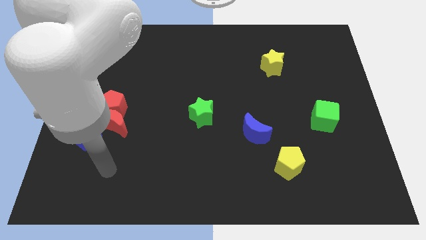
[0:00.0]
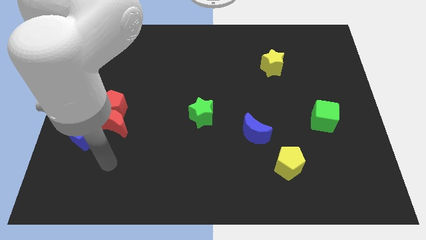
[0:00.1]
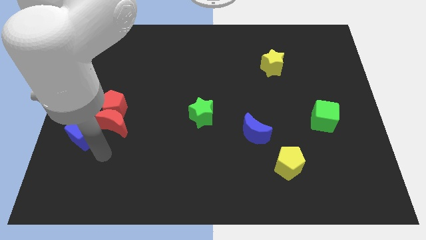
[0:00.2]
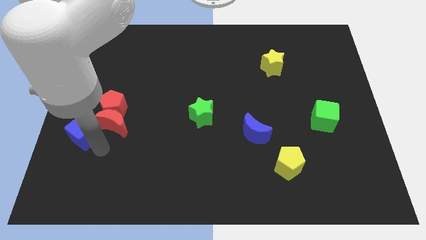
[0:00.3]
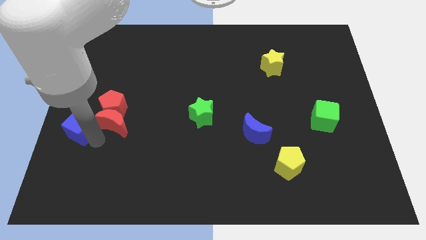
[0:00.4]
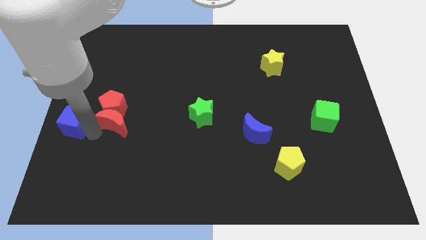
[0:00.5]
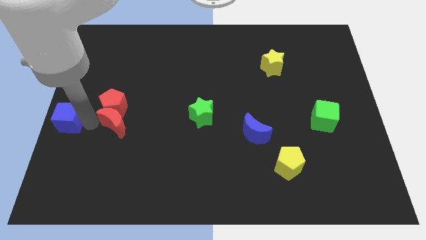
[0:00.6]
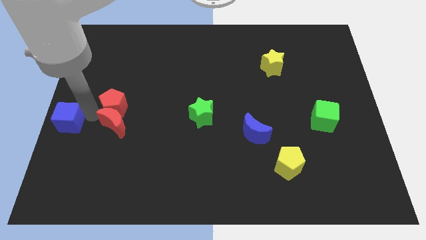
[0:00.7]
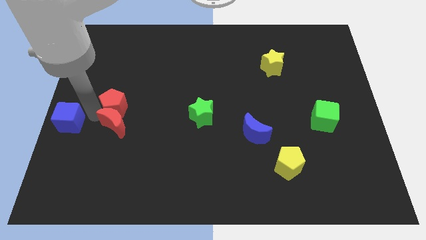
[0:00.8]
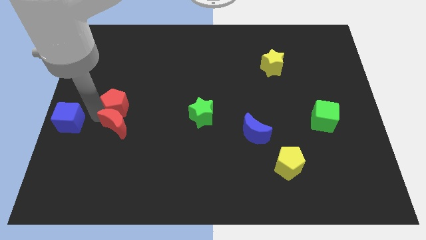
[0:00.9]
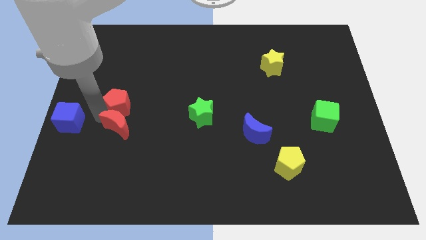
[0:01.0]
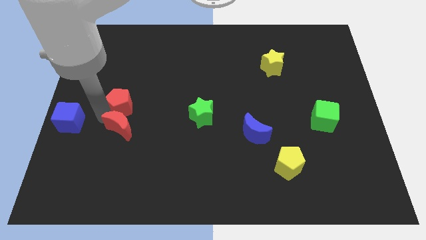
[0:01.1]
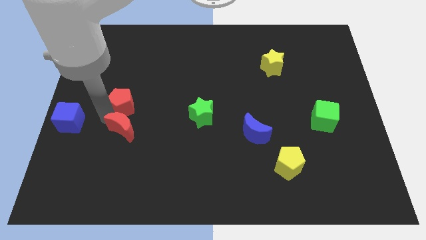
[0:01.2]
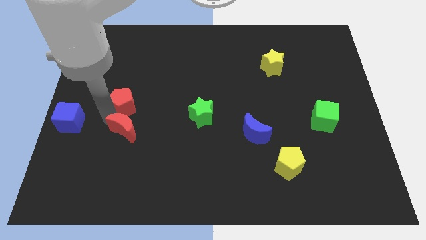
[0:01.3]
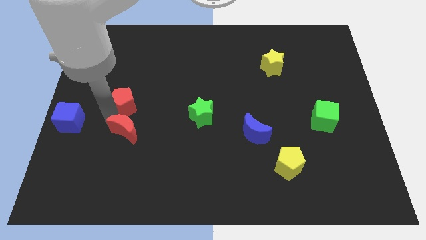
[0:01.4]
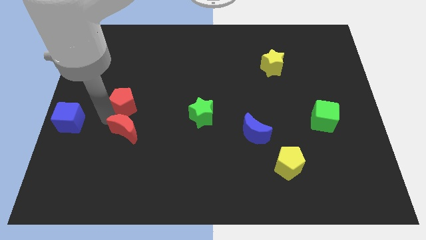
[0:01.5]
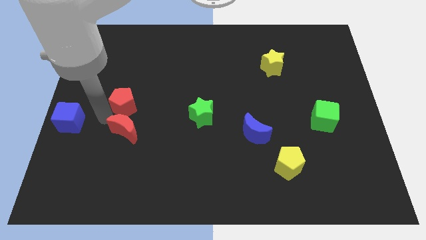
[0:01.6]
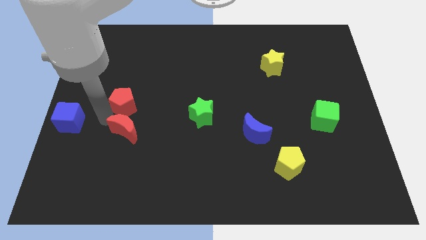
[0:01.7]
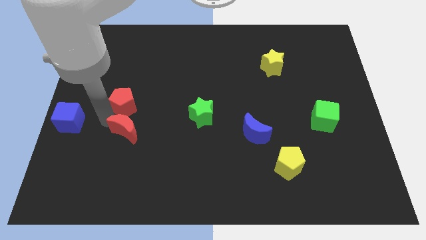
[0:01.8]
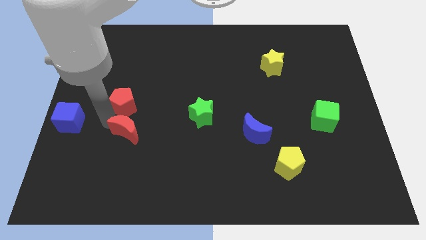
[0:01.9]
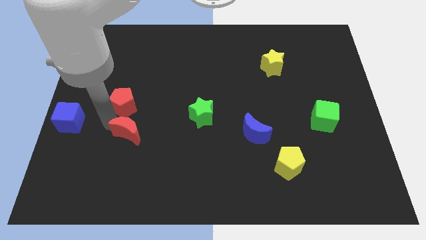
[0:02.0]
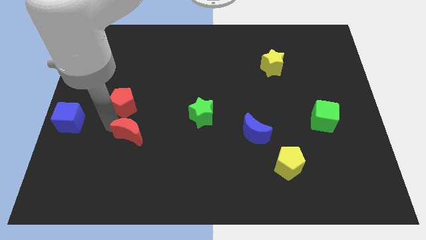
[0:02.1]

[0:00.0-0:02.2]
pull the red moon apart from the red pentagon and blue cube

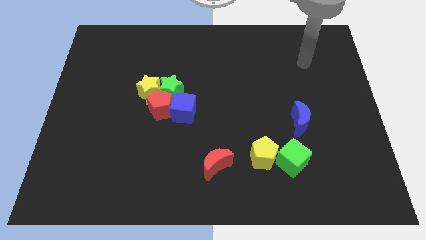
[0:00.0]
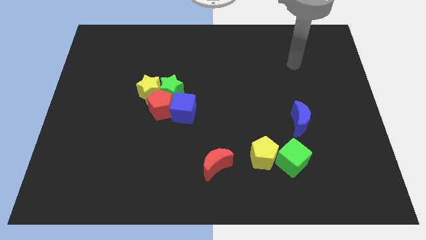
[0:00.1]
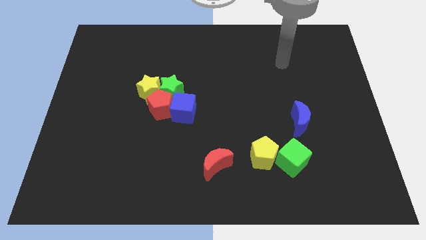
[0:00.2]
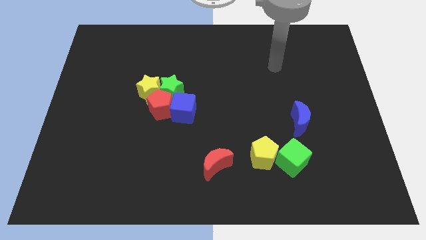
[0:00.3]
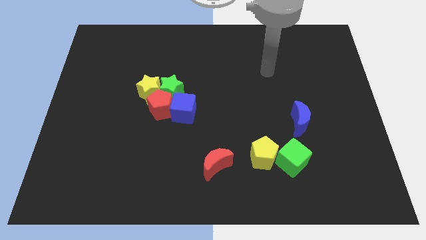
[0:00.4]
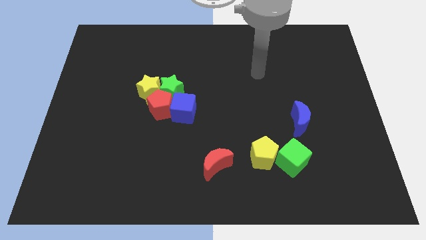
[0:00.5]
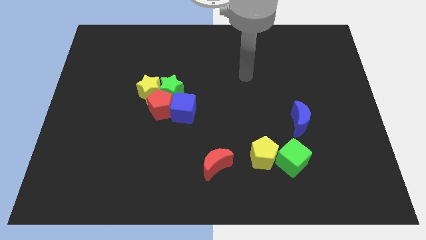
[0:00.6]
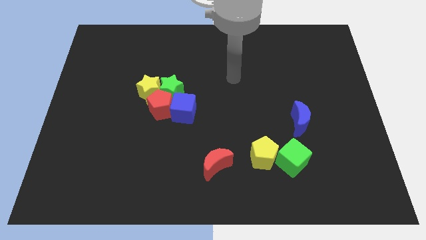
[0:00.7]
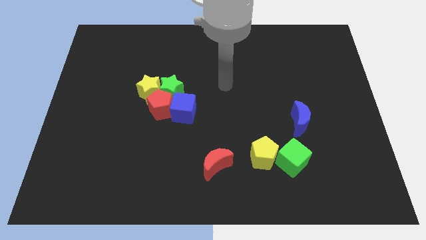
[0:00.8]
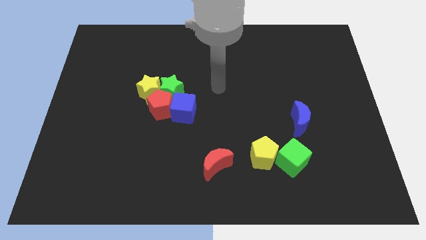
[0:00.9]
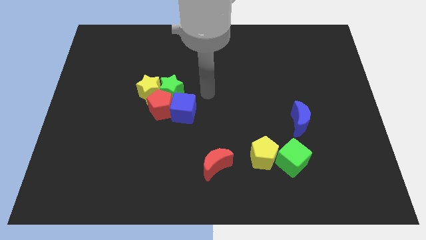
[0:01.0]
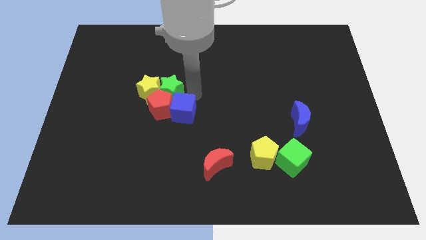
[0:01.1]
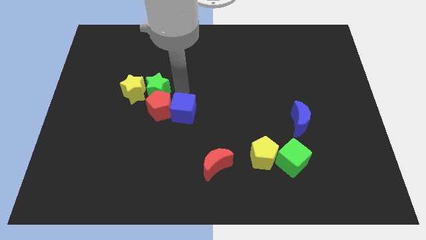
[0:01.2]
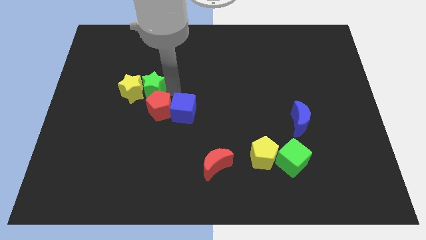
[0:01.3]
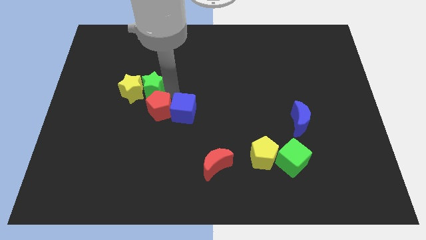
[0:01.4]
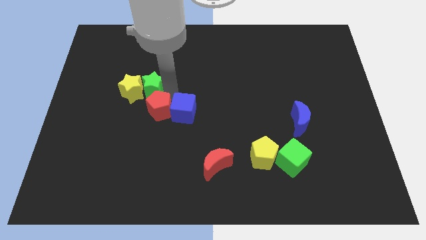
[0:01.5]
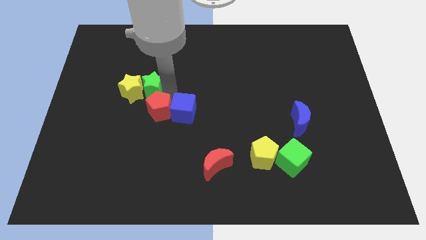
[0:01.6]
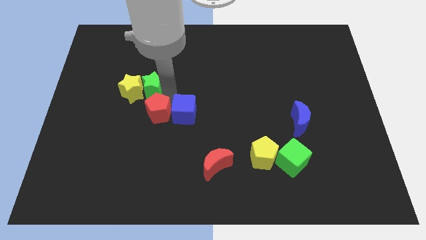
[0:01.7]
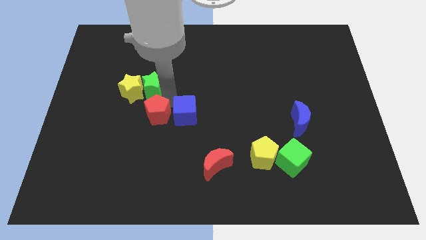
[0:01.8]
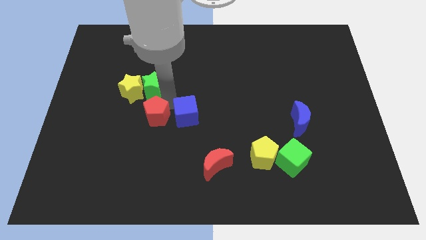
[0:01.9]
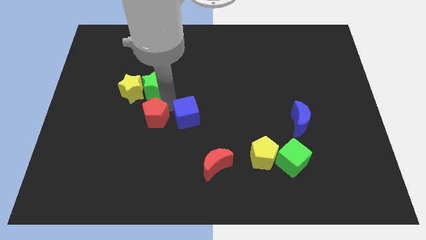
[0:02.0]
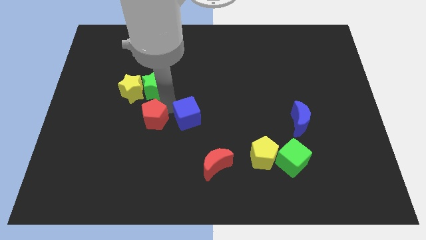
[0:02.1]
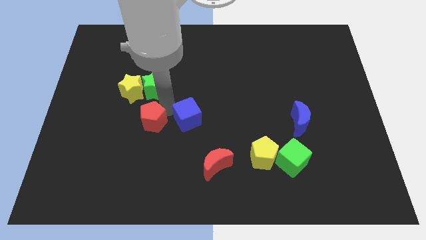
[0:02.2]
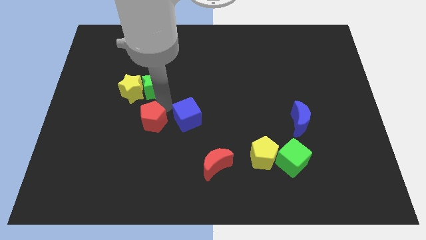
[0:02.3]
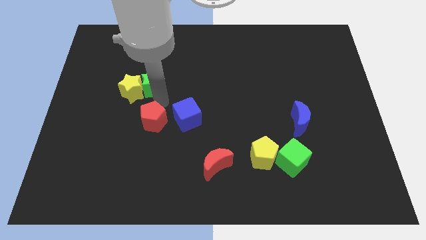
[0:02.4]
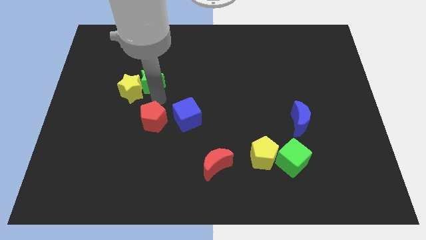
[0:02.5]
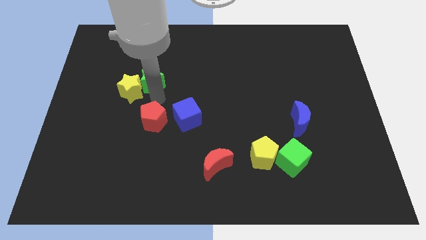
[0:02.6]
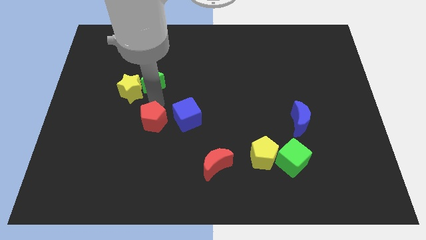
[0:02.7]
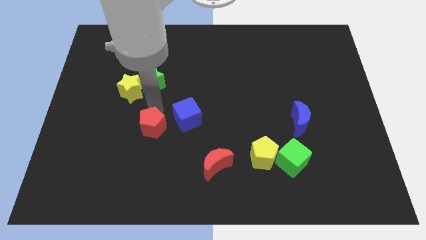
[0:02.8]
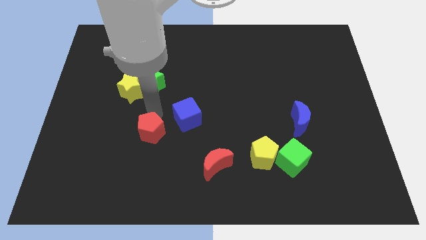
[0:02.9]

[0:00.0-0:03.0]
pull the red pentagon apart from the group of blocks

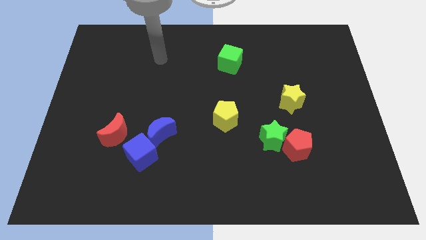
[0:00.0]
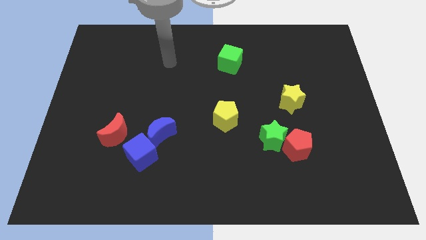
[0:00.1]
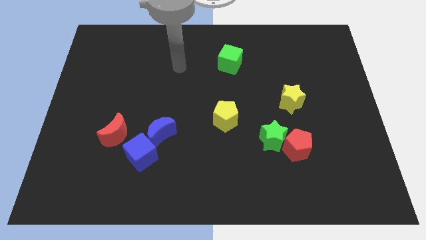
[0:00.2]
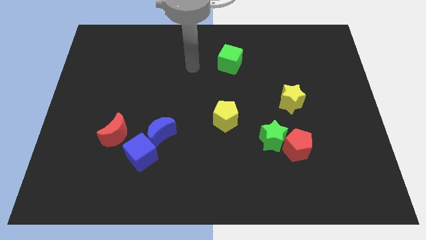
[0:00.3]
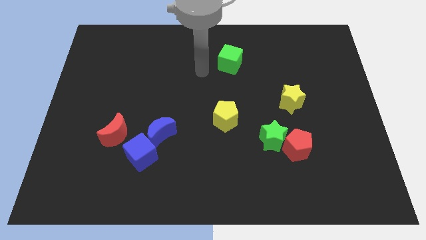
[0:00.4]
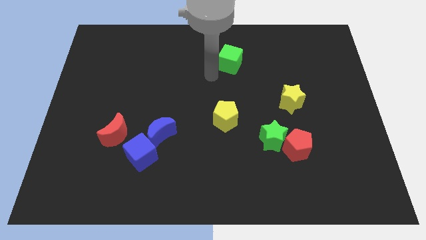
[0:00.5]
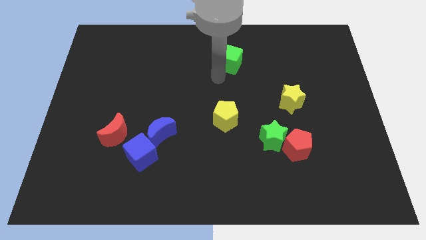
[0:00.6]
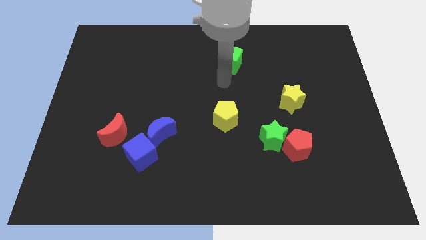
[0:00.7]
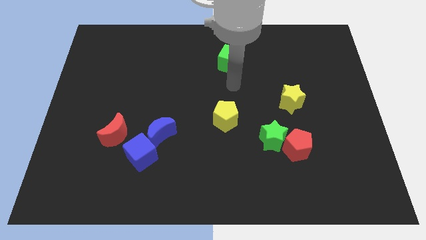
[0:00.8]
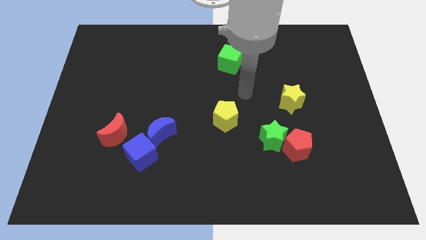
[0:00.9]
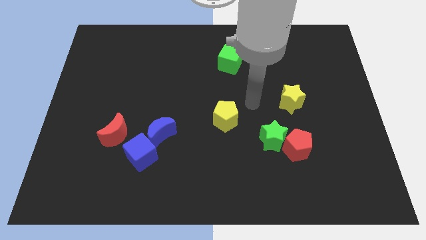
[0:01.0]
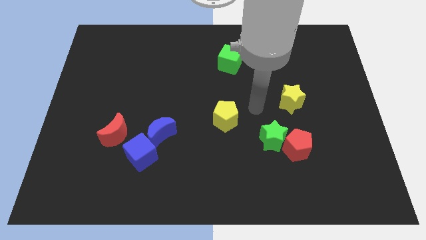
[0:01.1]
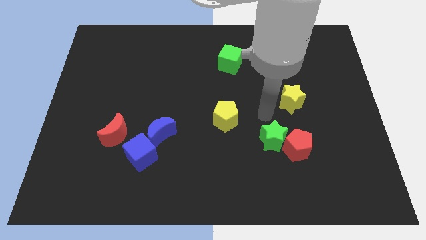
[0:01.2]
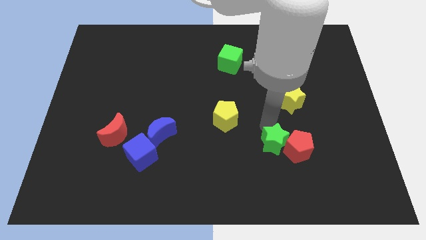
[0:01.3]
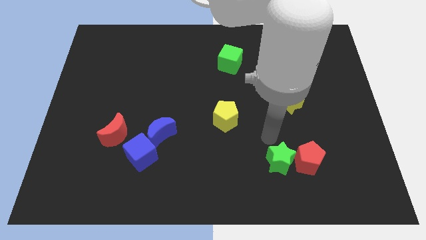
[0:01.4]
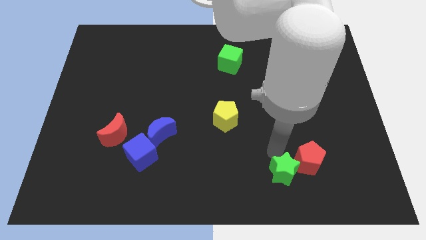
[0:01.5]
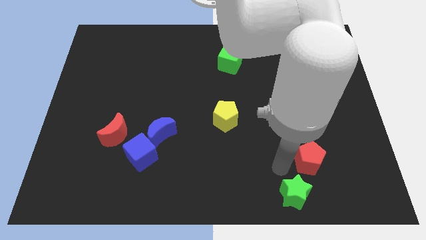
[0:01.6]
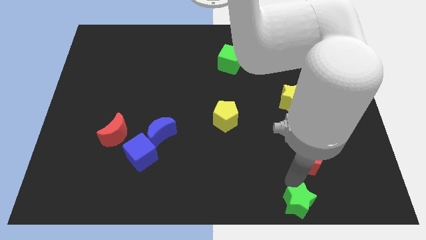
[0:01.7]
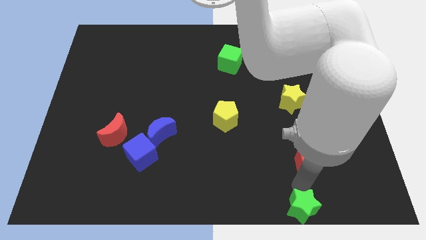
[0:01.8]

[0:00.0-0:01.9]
pull the red pentagon apart from the green star

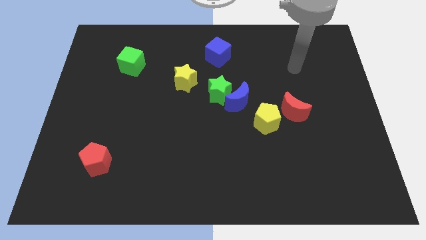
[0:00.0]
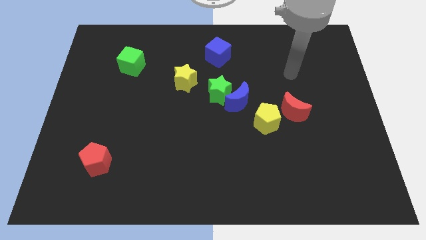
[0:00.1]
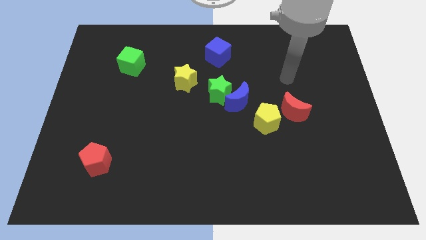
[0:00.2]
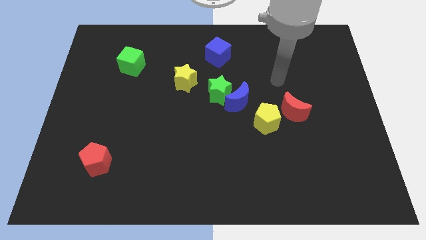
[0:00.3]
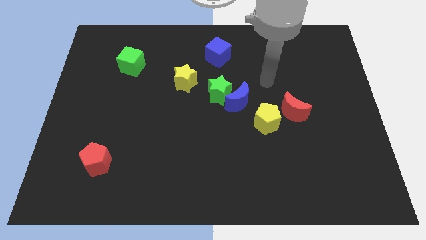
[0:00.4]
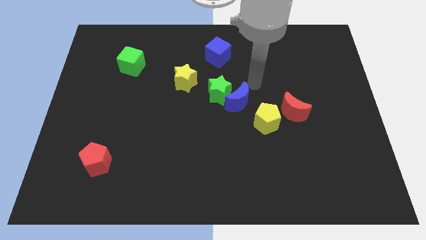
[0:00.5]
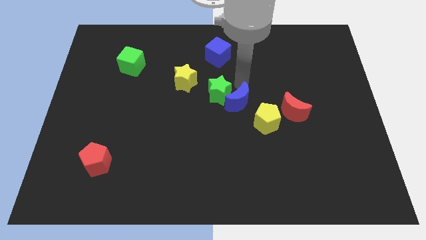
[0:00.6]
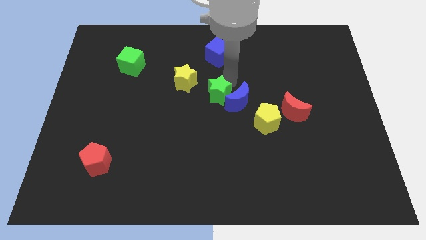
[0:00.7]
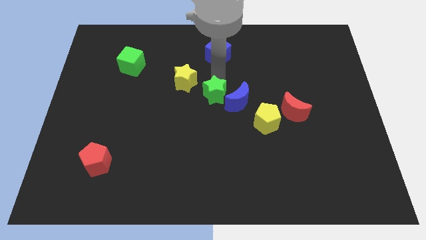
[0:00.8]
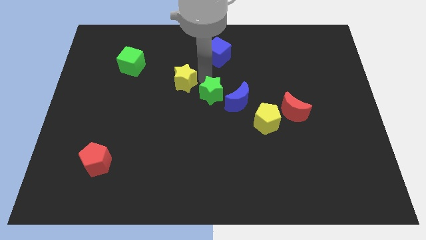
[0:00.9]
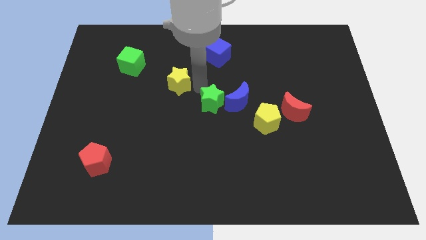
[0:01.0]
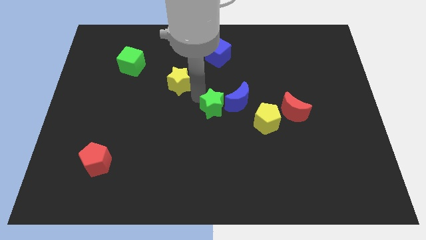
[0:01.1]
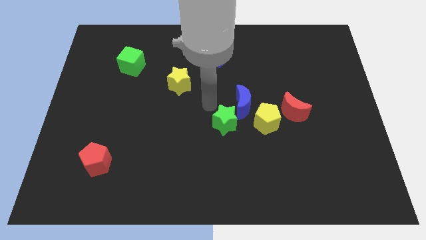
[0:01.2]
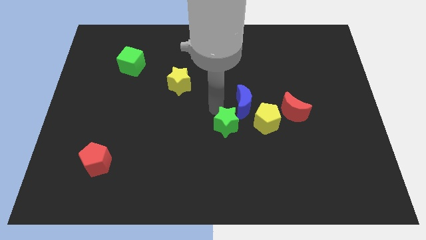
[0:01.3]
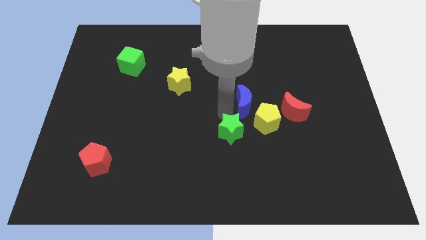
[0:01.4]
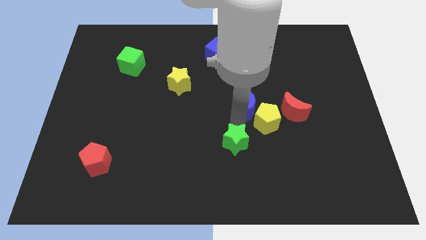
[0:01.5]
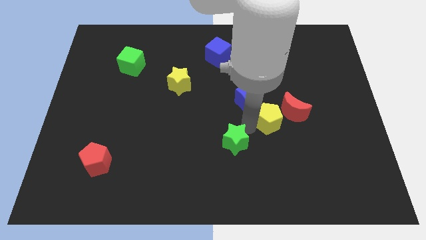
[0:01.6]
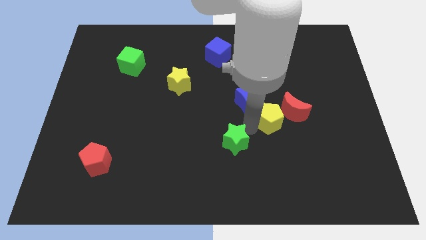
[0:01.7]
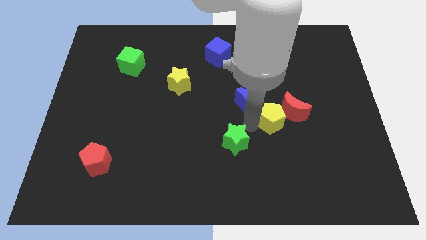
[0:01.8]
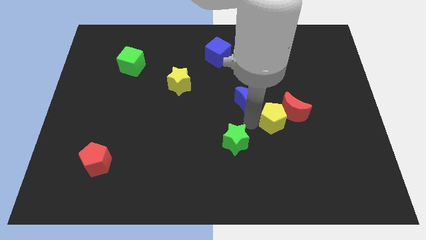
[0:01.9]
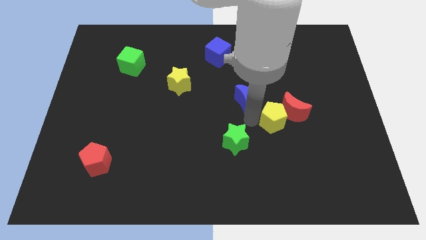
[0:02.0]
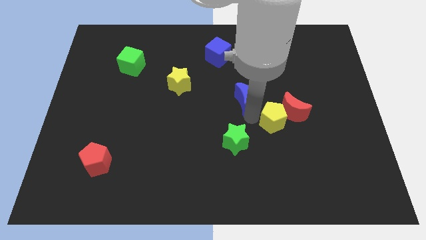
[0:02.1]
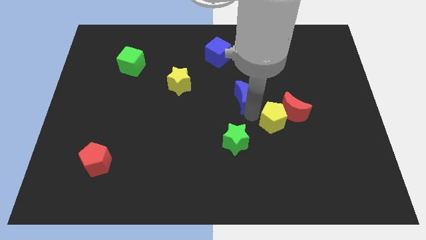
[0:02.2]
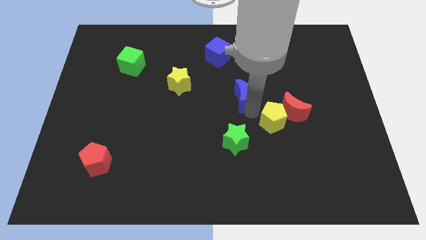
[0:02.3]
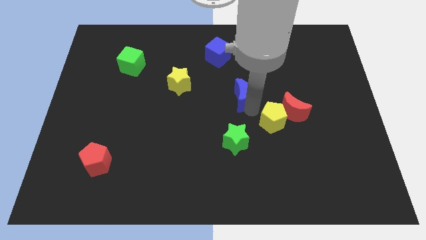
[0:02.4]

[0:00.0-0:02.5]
move the blue moon away from the green star and yellow pentagon

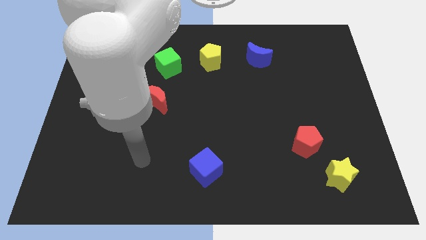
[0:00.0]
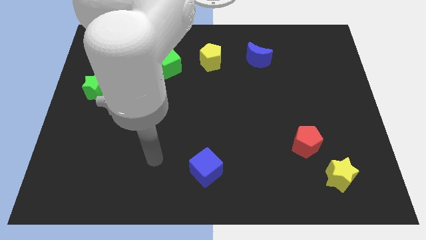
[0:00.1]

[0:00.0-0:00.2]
separate the red pentagon from the yellow star
